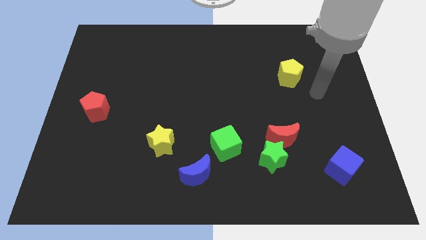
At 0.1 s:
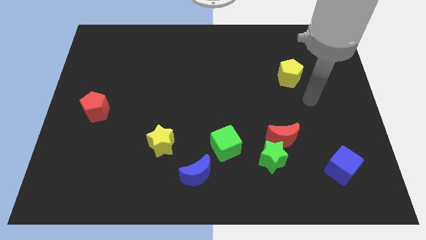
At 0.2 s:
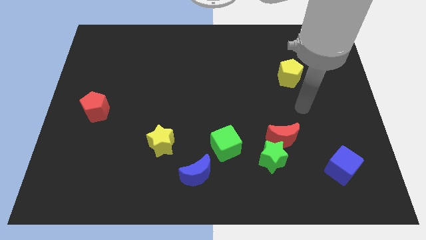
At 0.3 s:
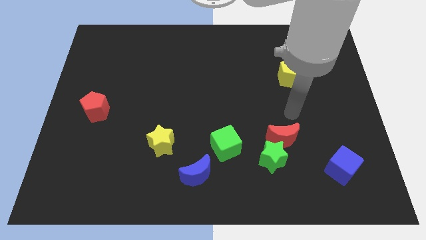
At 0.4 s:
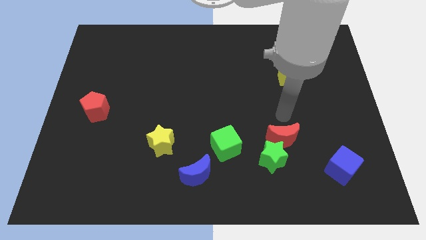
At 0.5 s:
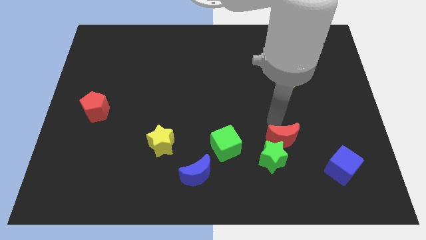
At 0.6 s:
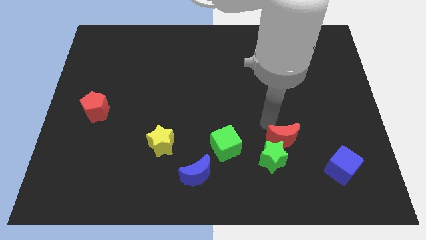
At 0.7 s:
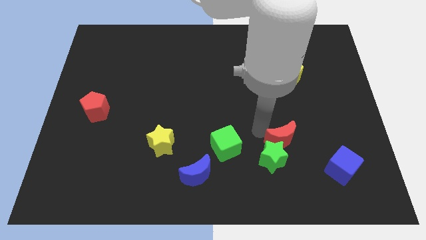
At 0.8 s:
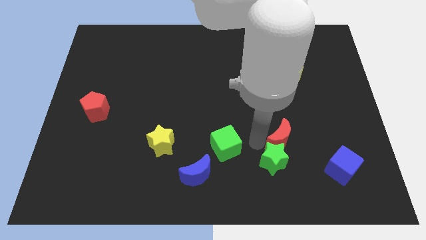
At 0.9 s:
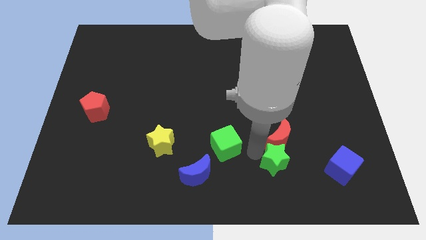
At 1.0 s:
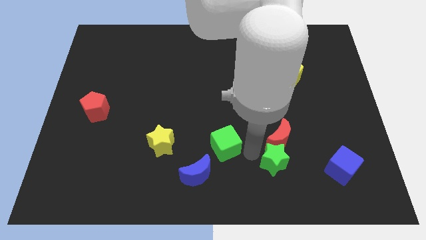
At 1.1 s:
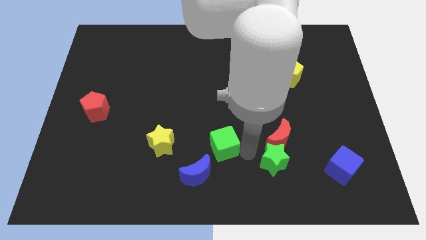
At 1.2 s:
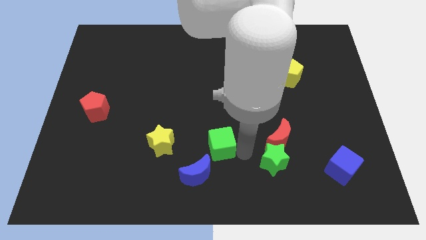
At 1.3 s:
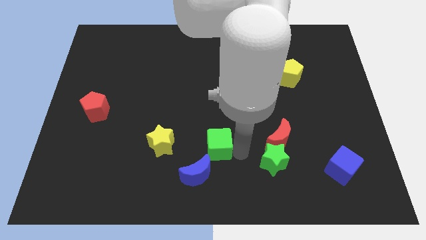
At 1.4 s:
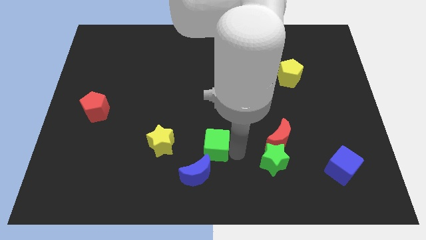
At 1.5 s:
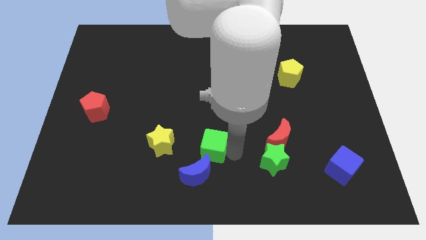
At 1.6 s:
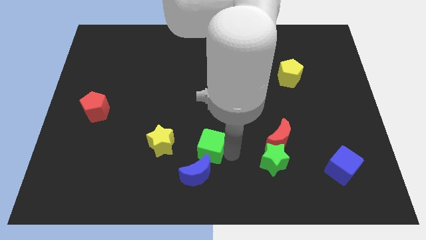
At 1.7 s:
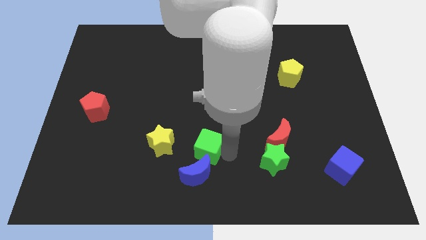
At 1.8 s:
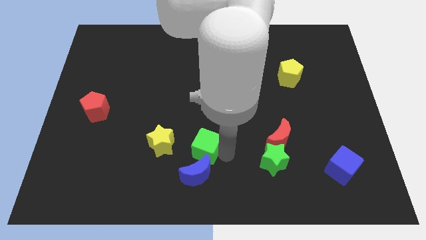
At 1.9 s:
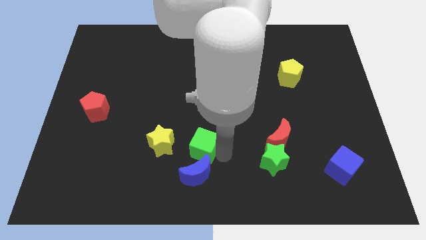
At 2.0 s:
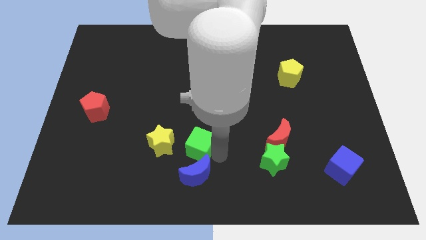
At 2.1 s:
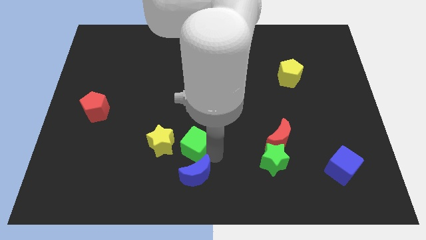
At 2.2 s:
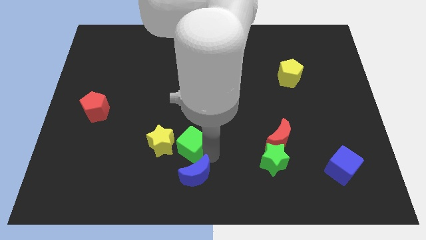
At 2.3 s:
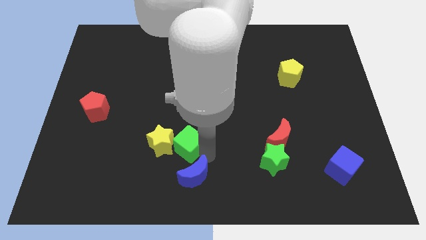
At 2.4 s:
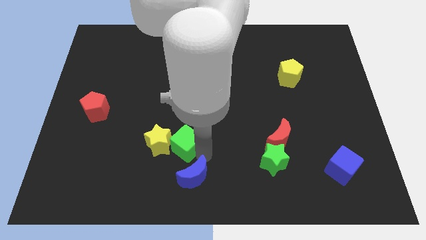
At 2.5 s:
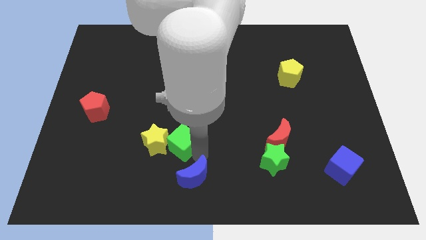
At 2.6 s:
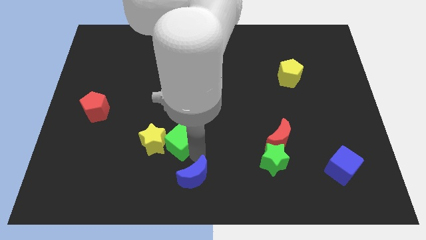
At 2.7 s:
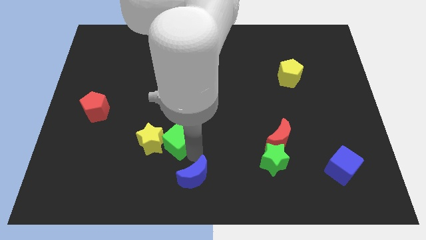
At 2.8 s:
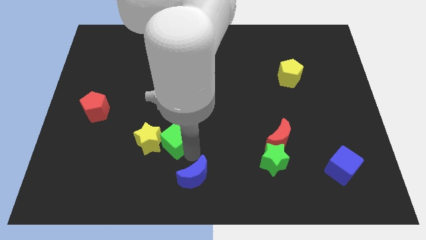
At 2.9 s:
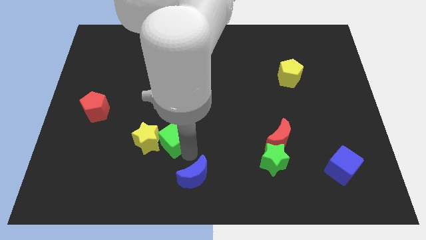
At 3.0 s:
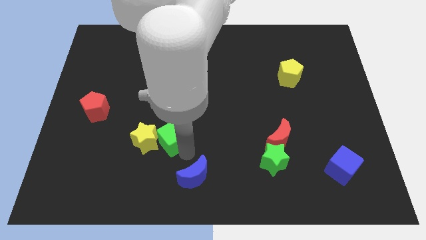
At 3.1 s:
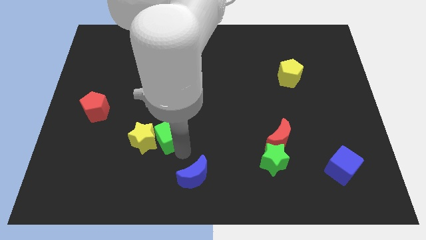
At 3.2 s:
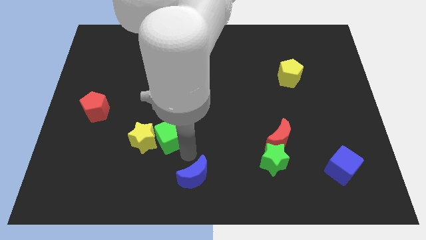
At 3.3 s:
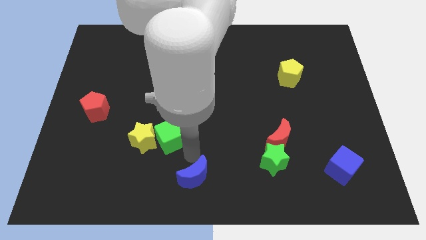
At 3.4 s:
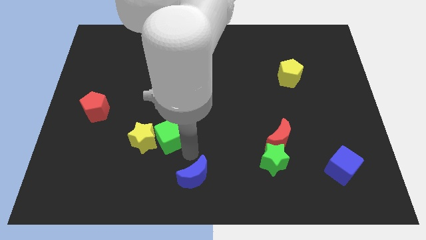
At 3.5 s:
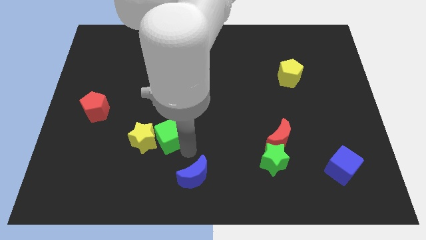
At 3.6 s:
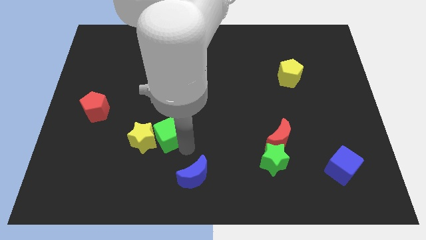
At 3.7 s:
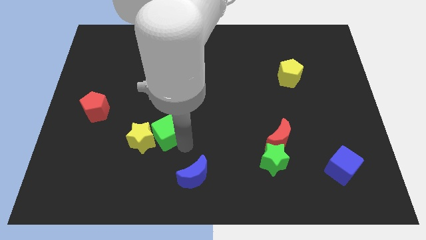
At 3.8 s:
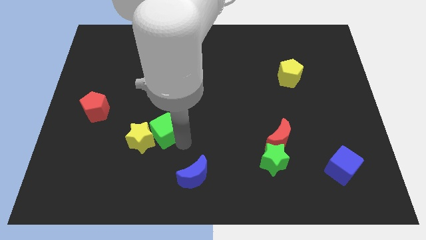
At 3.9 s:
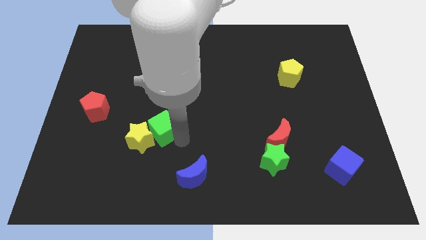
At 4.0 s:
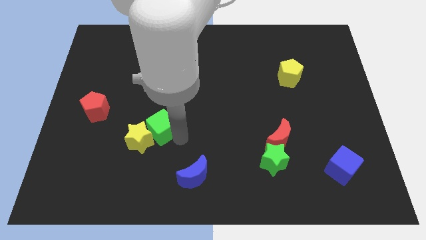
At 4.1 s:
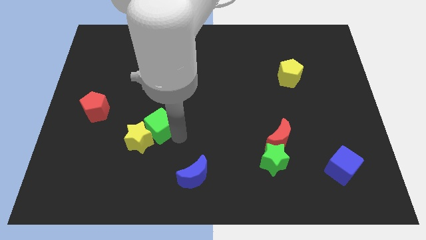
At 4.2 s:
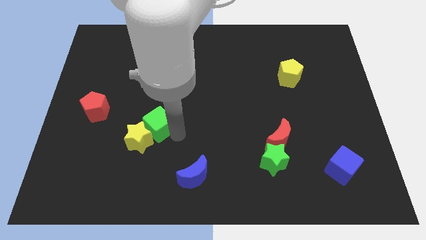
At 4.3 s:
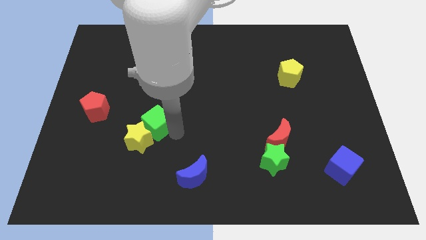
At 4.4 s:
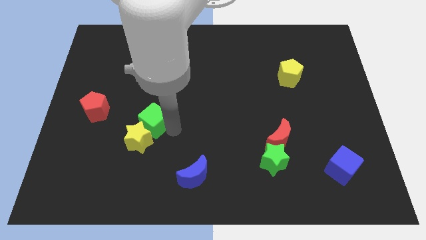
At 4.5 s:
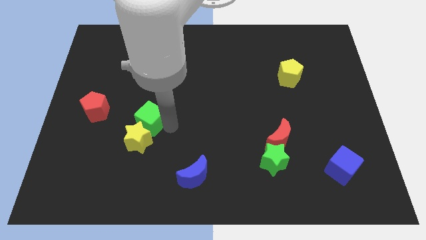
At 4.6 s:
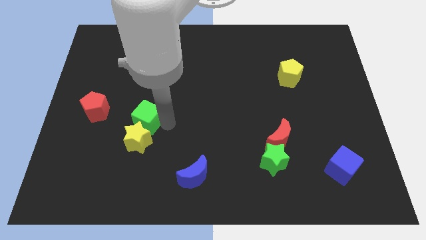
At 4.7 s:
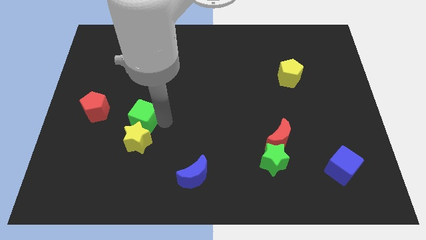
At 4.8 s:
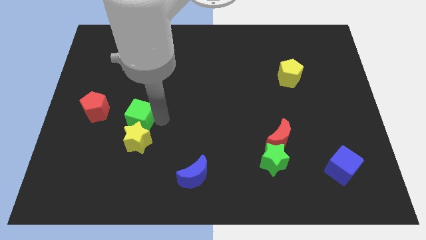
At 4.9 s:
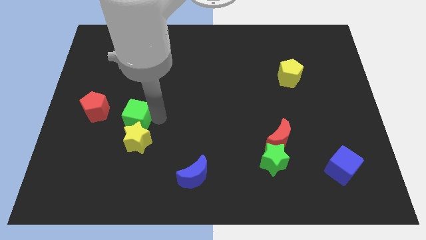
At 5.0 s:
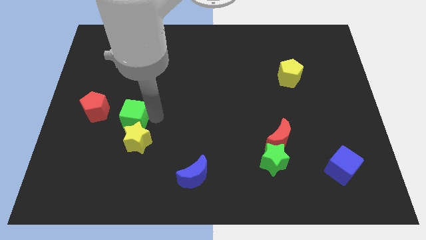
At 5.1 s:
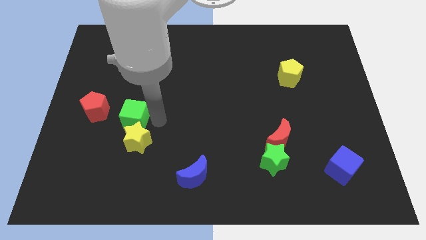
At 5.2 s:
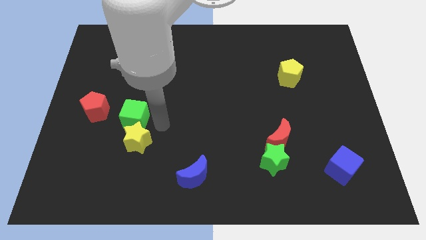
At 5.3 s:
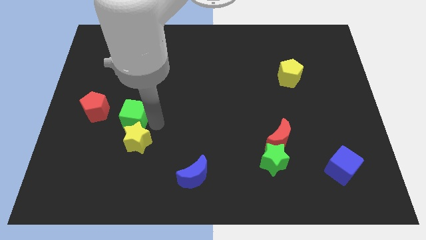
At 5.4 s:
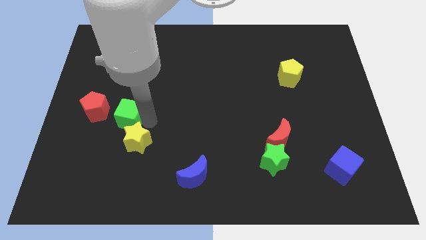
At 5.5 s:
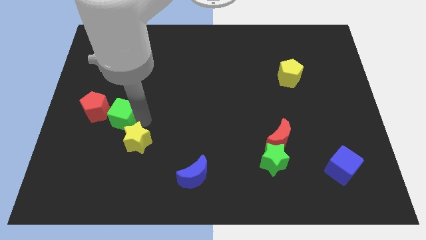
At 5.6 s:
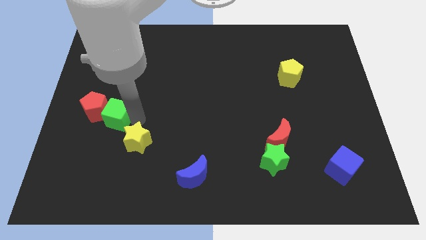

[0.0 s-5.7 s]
move the green cube next to the red pentagon
